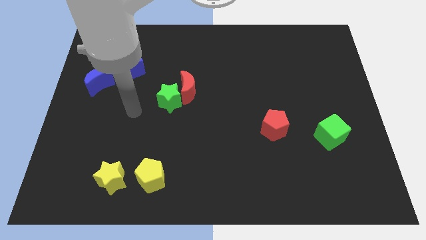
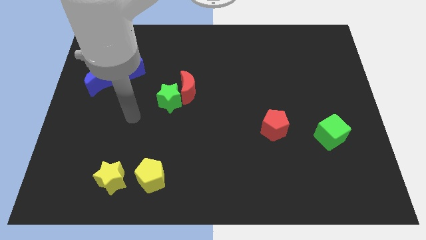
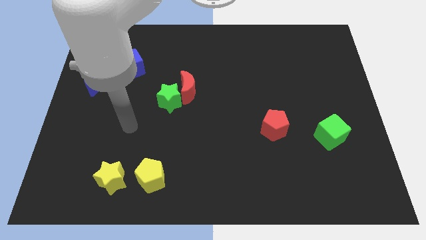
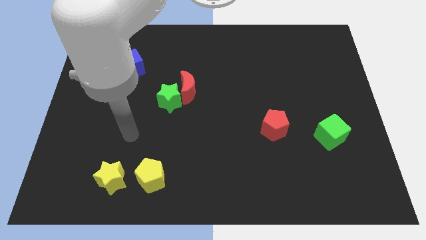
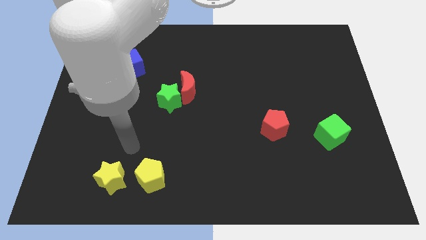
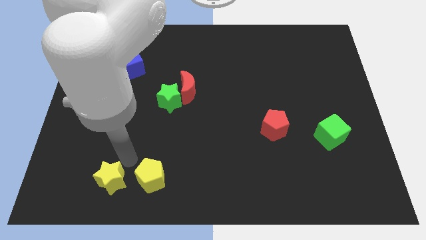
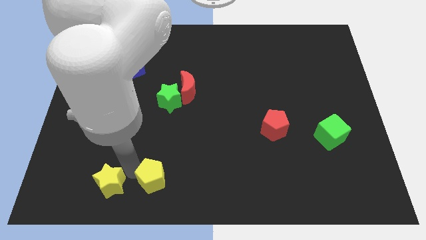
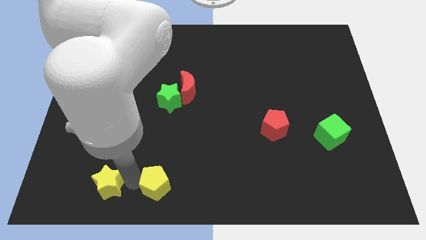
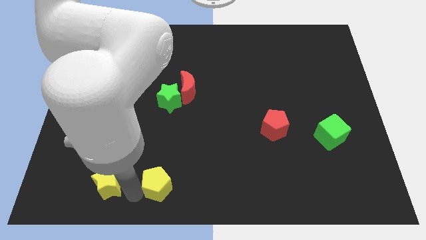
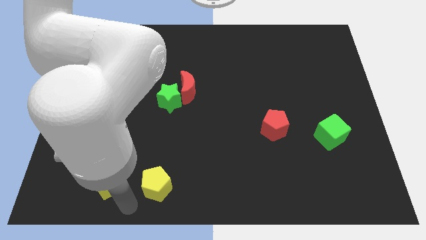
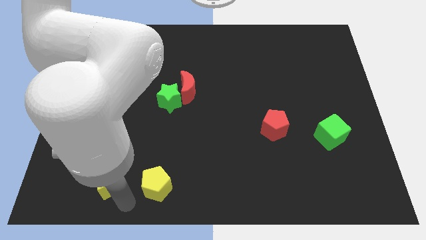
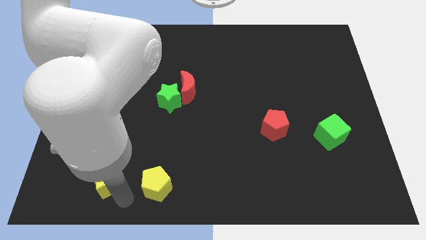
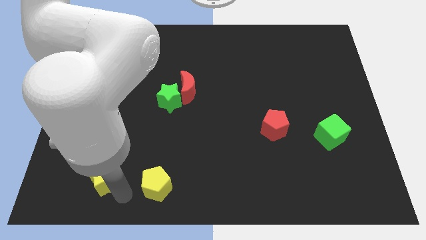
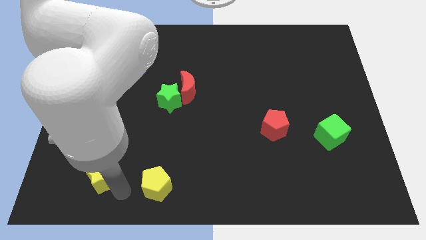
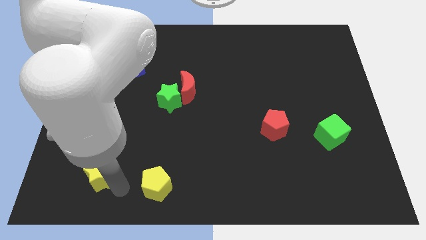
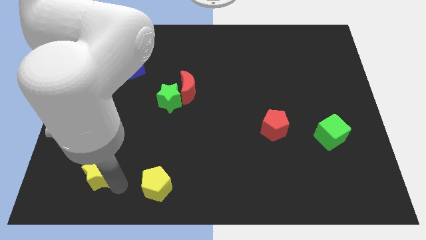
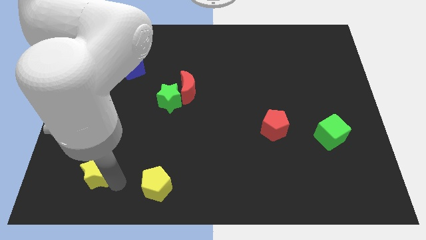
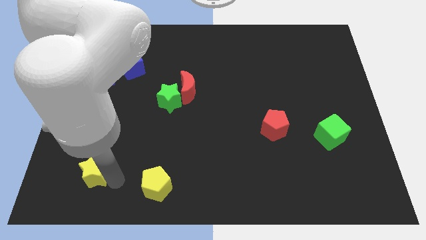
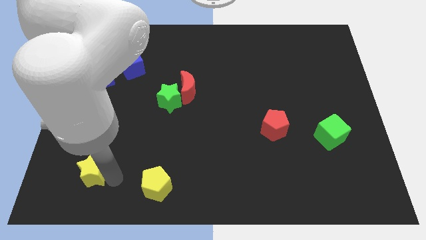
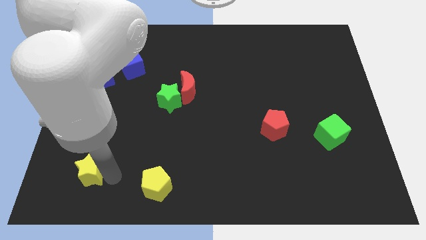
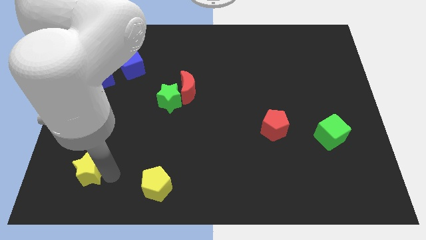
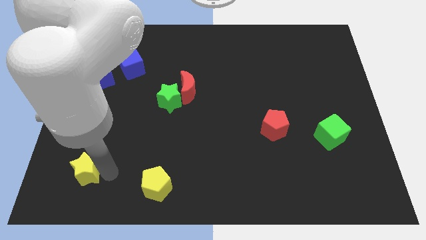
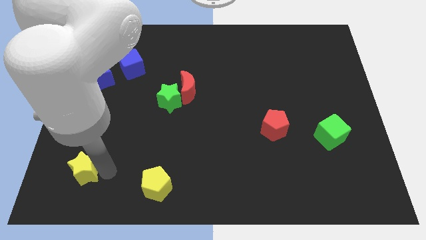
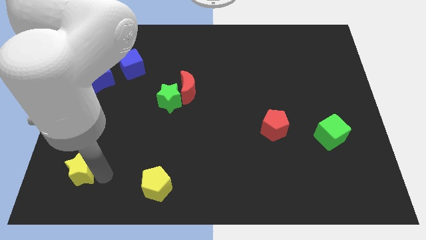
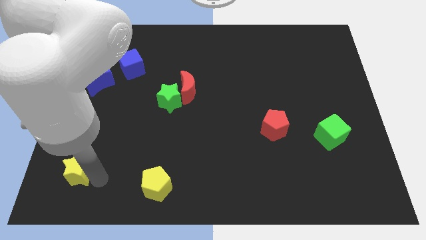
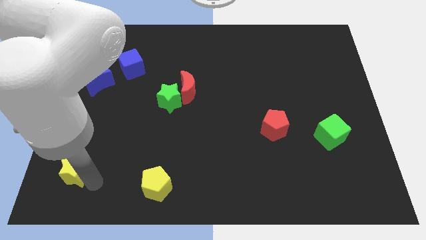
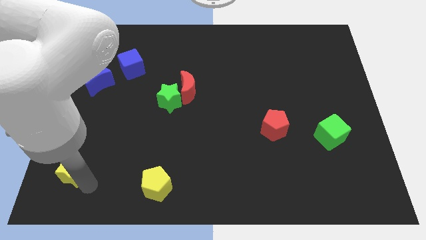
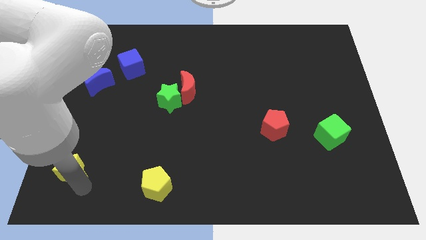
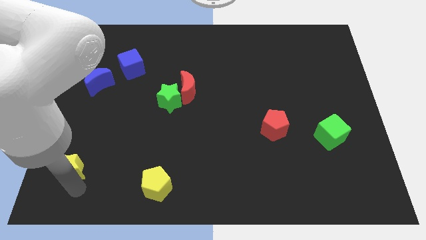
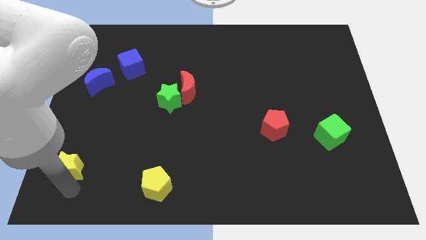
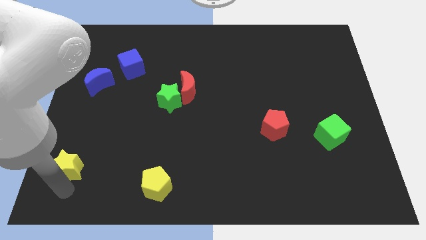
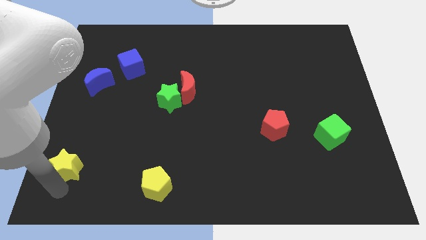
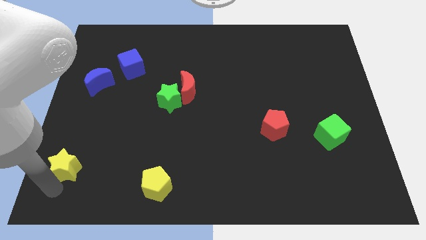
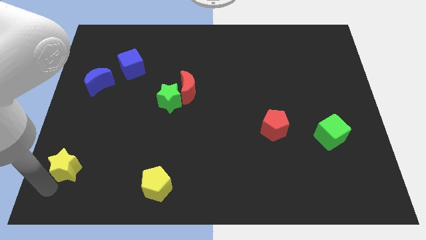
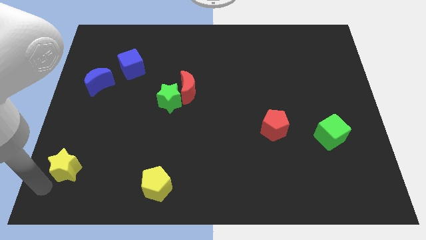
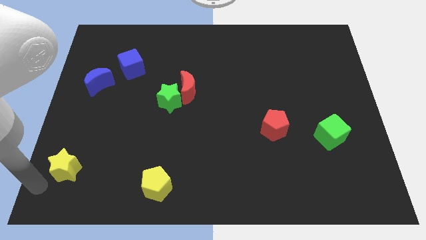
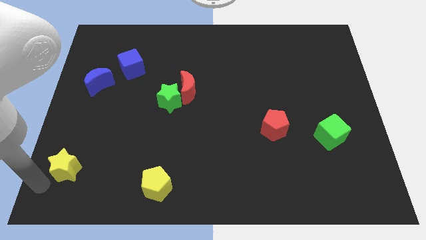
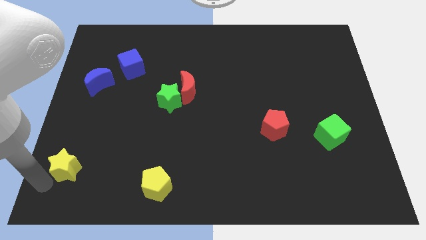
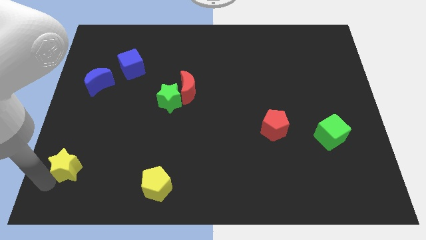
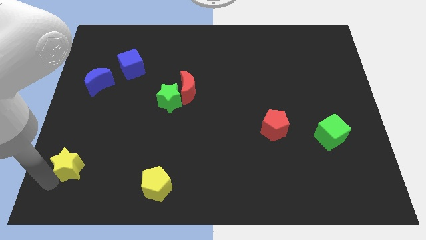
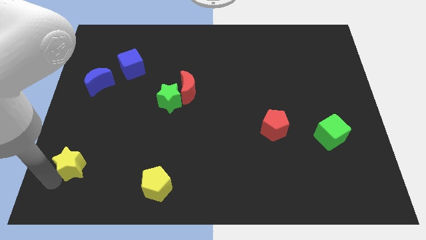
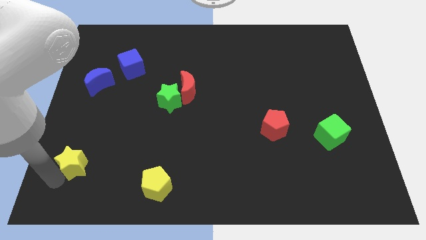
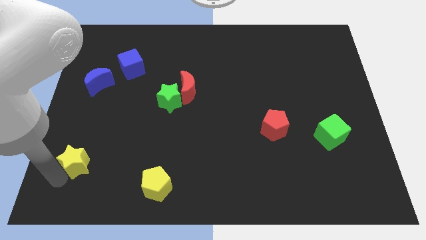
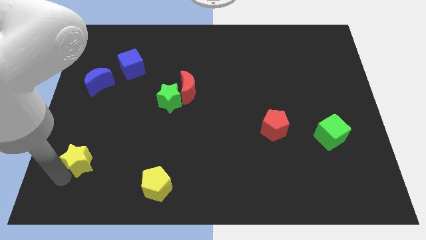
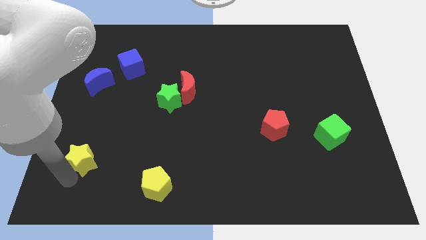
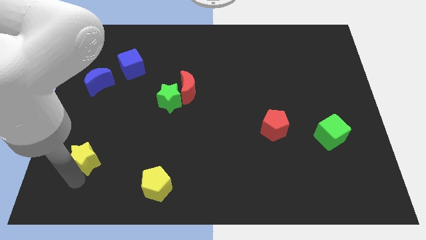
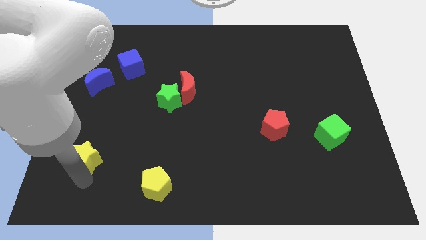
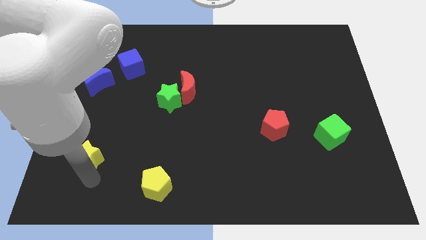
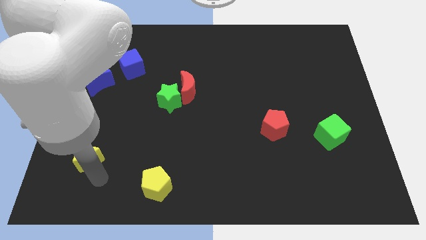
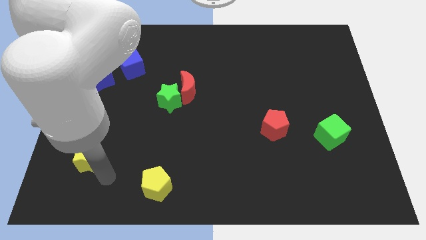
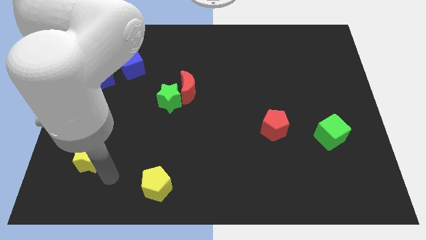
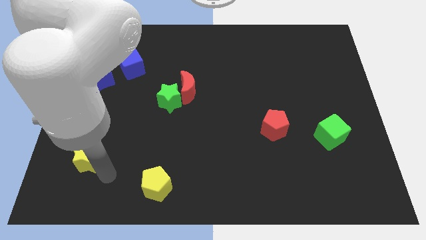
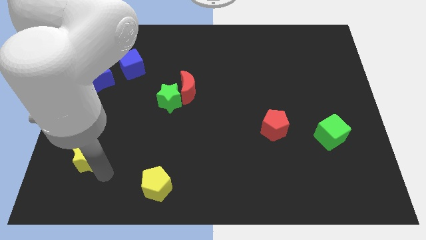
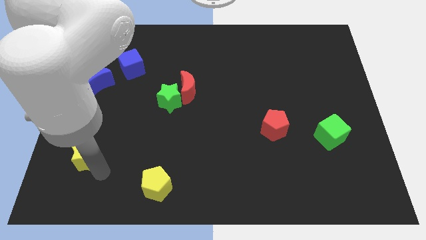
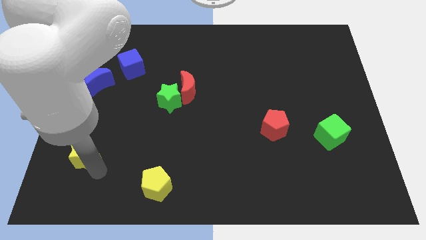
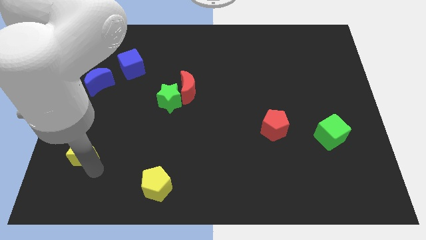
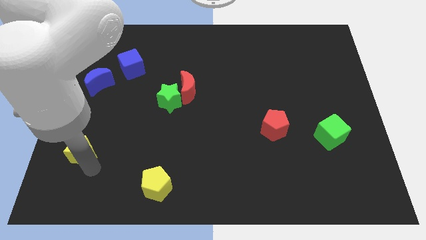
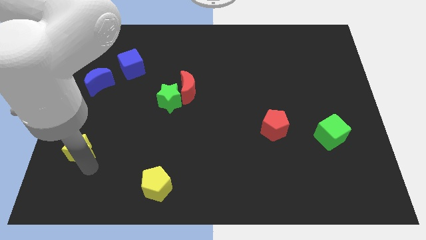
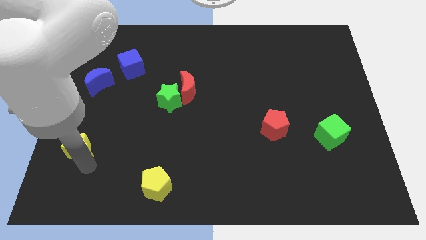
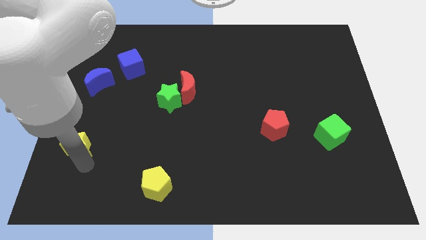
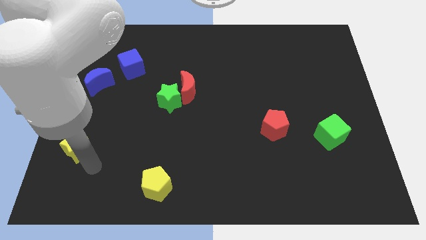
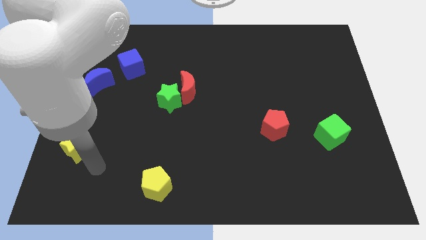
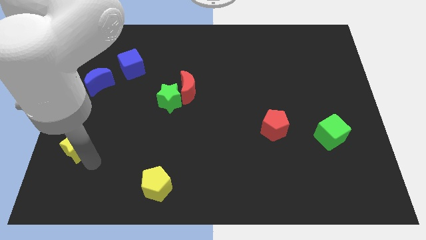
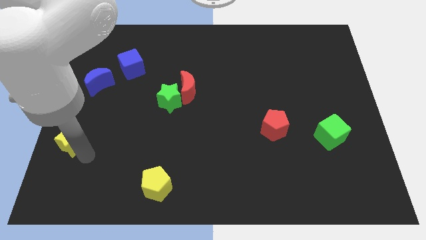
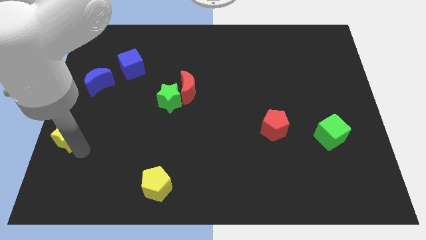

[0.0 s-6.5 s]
slide the yellow star to the left side

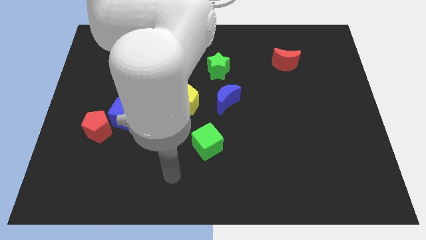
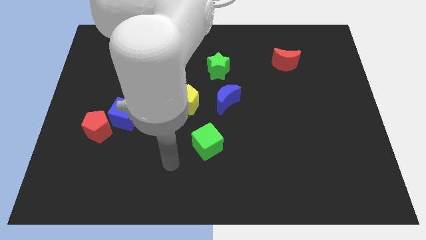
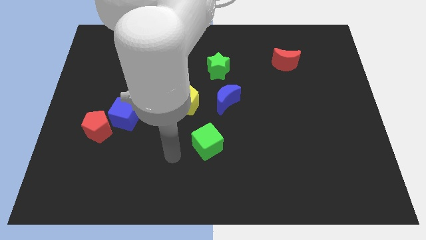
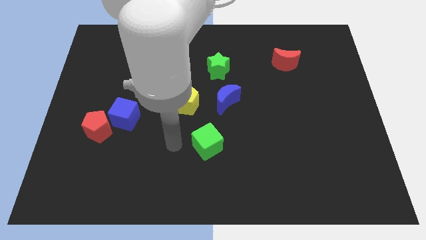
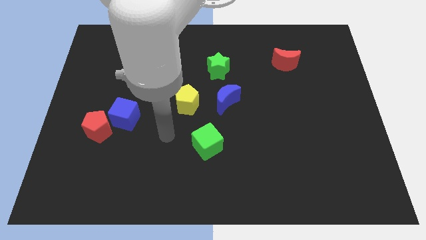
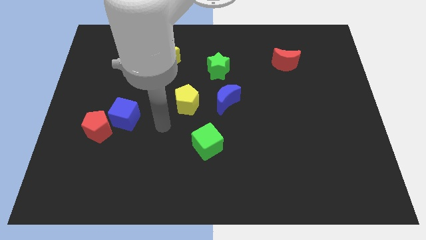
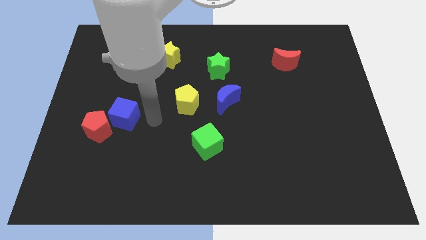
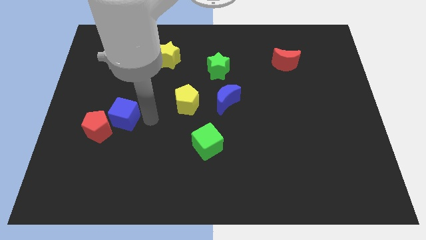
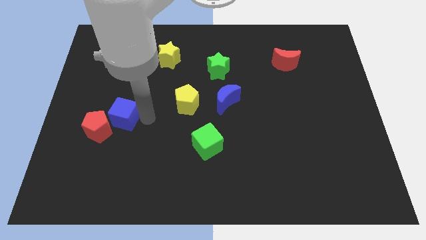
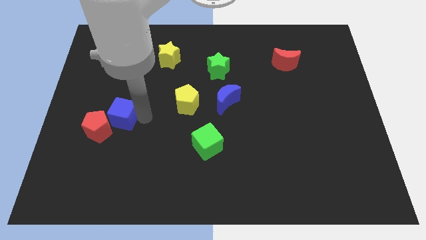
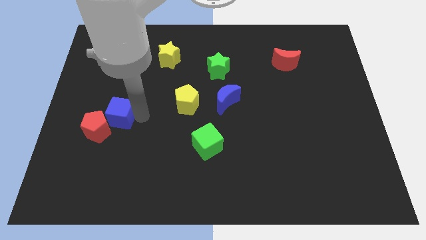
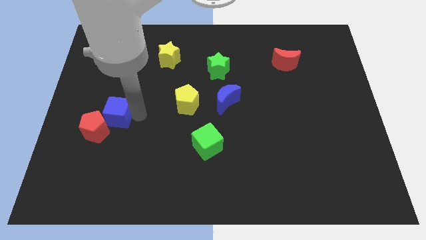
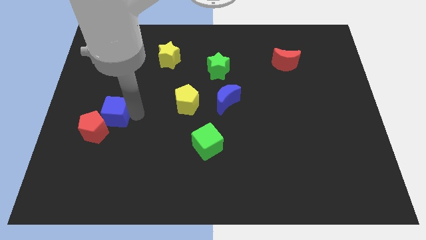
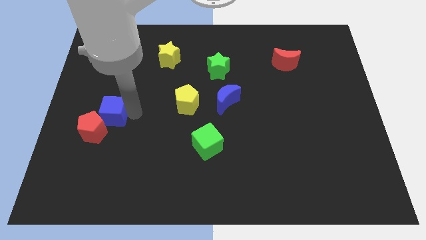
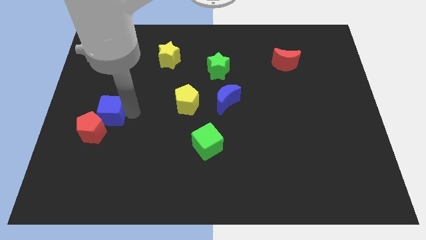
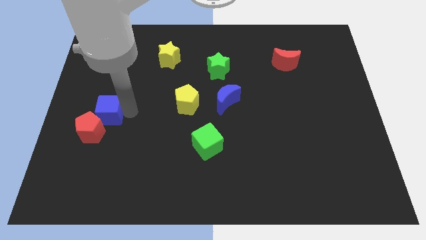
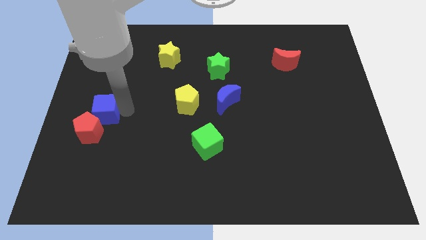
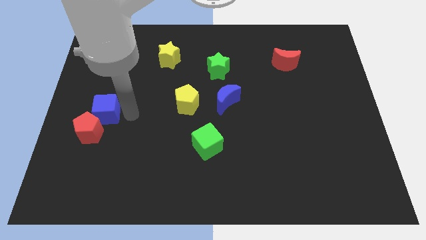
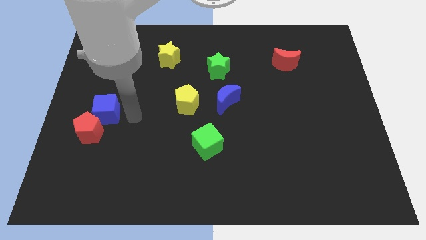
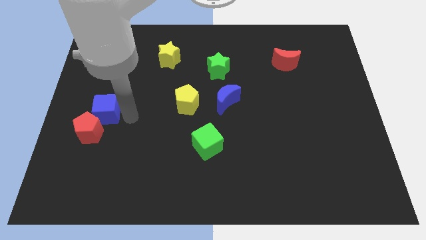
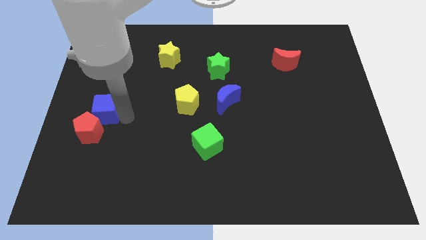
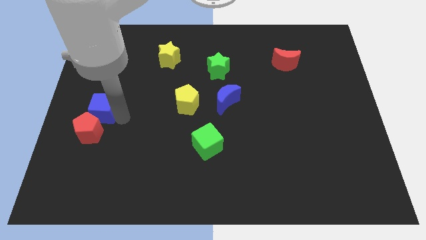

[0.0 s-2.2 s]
slide the blue cube to the left side of the board
